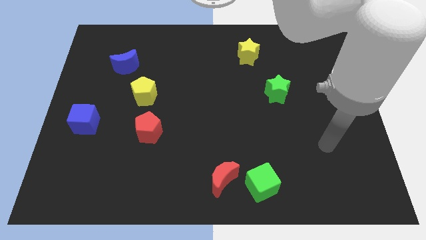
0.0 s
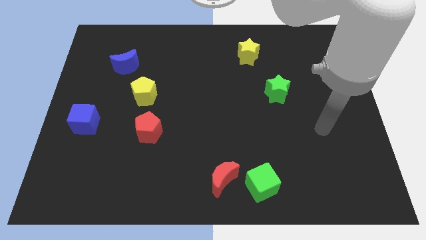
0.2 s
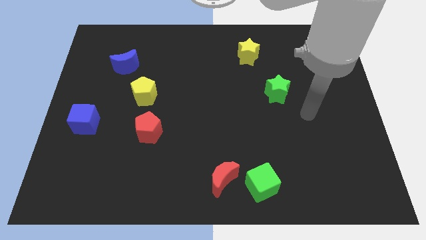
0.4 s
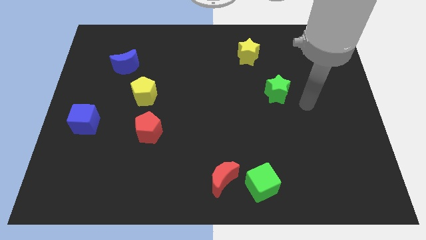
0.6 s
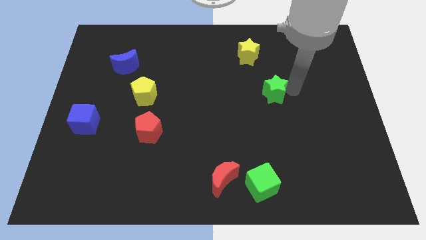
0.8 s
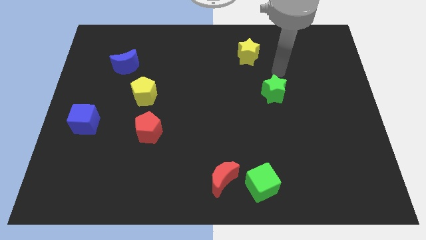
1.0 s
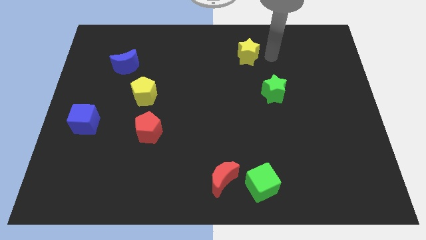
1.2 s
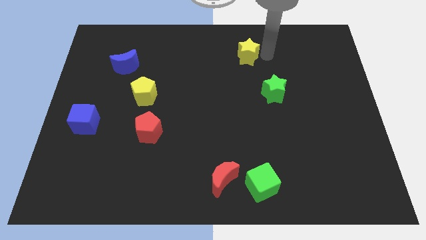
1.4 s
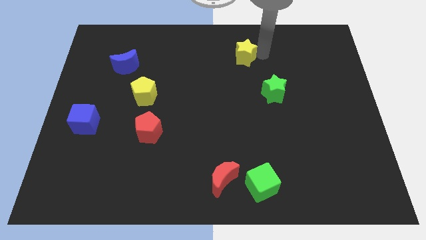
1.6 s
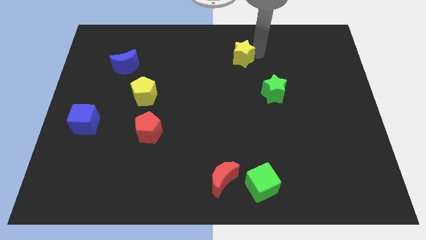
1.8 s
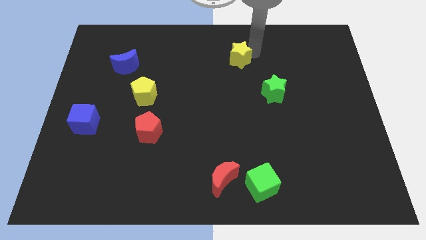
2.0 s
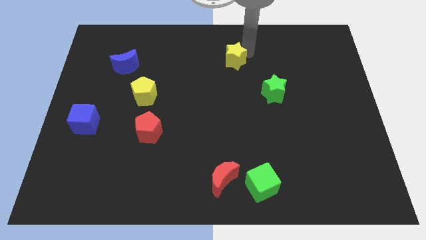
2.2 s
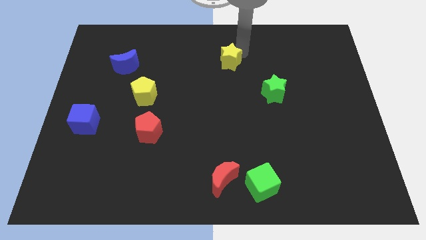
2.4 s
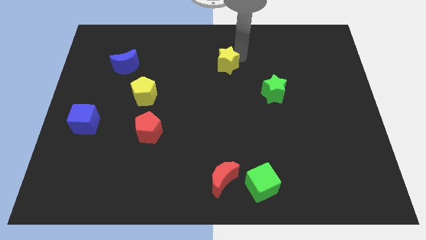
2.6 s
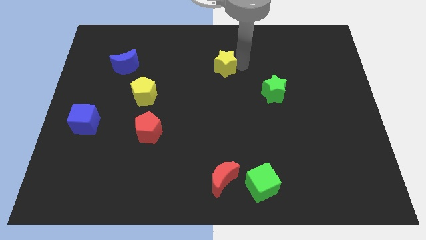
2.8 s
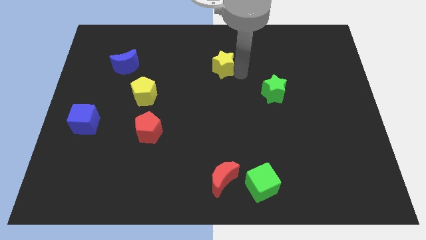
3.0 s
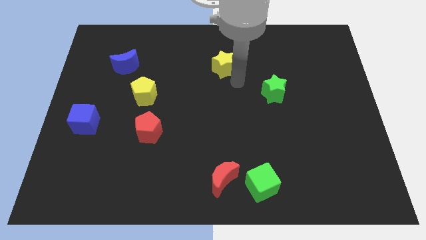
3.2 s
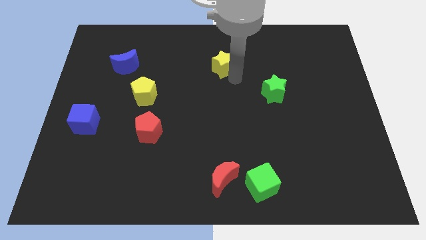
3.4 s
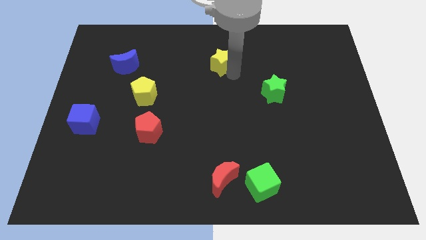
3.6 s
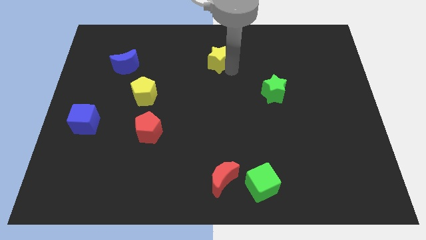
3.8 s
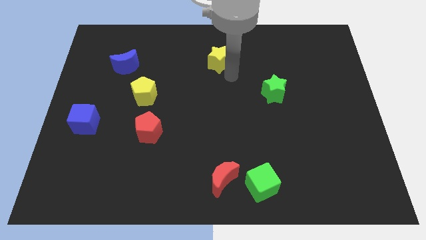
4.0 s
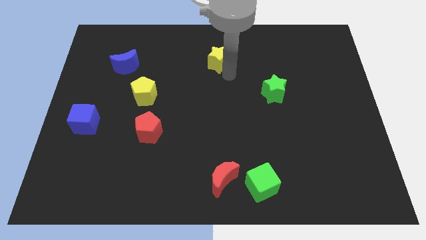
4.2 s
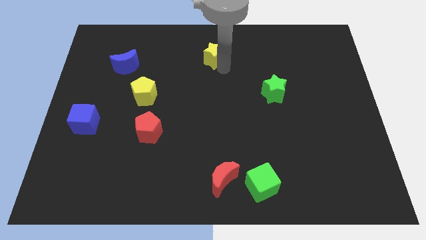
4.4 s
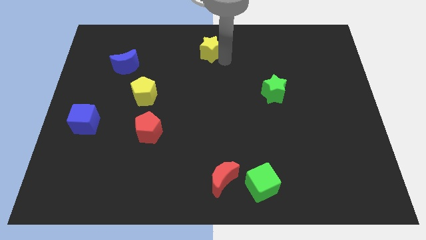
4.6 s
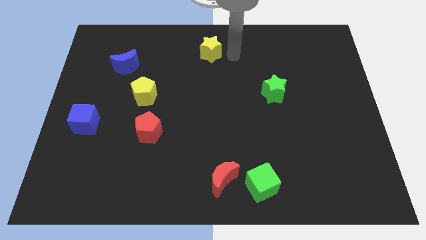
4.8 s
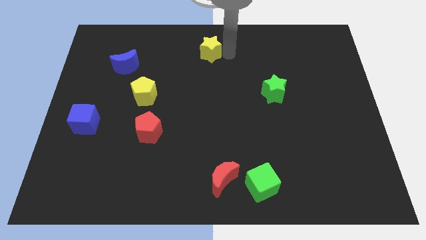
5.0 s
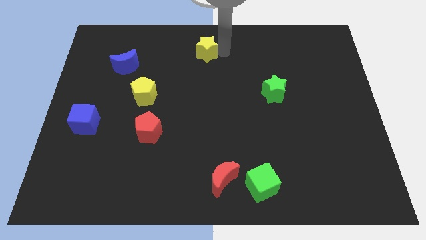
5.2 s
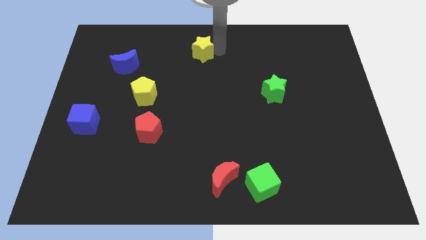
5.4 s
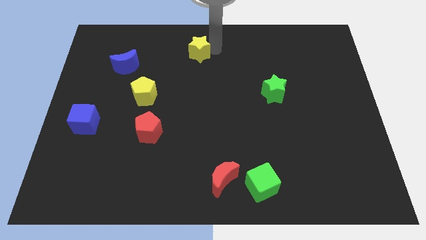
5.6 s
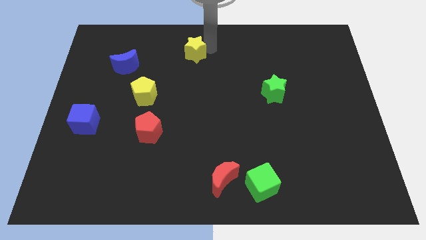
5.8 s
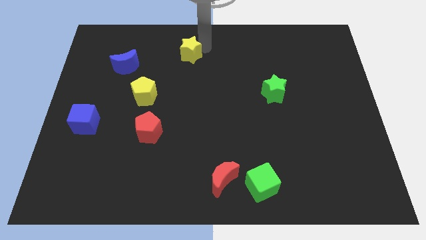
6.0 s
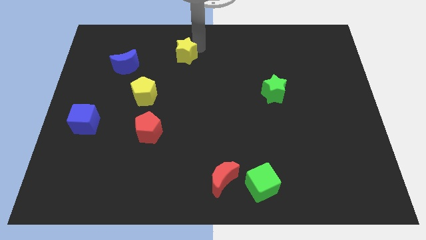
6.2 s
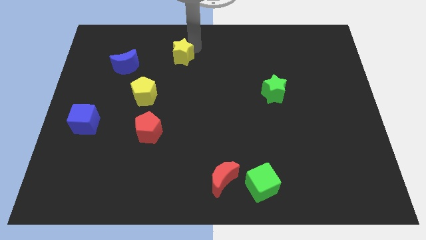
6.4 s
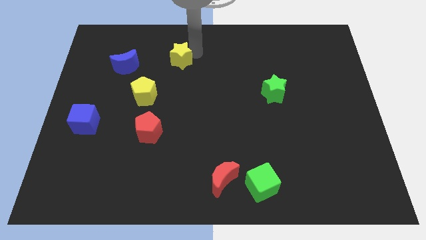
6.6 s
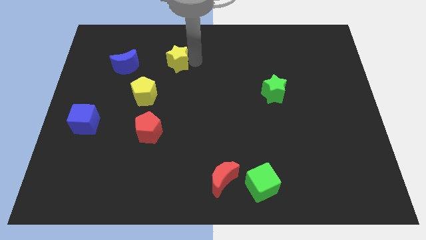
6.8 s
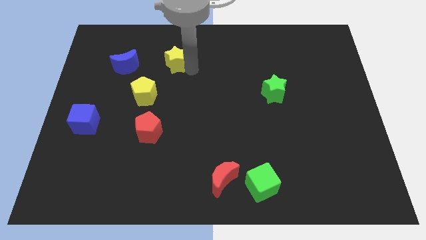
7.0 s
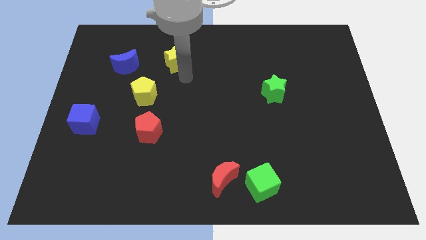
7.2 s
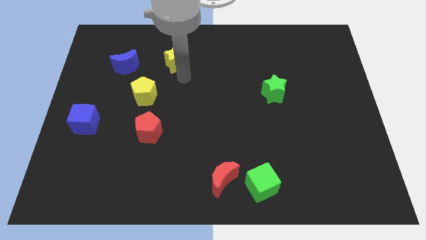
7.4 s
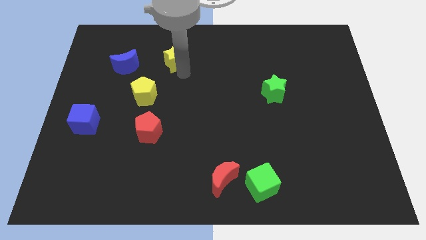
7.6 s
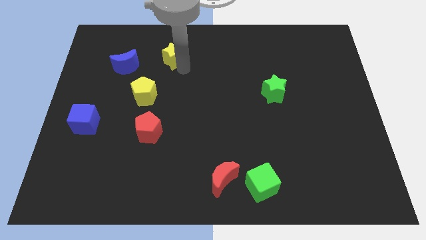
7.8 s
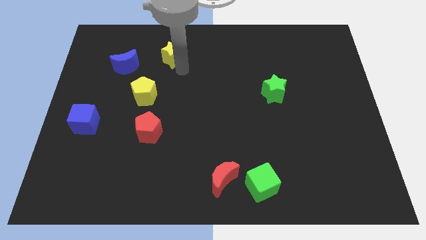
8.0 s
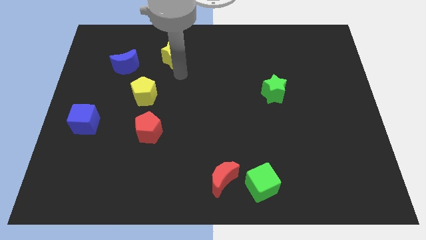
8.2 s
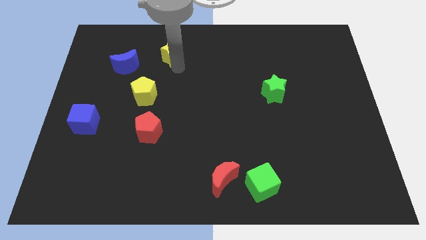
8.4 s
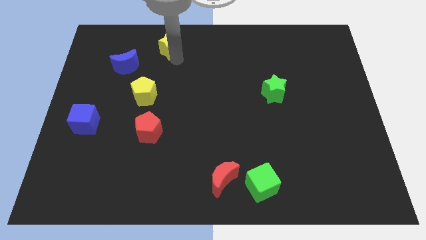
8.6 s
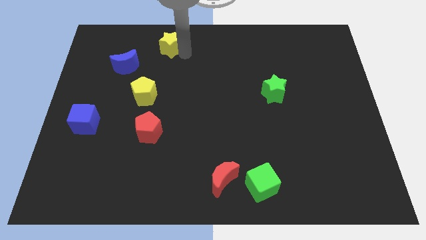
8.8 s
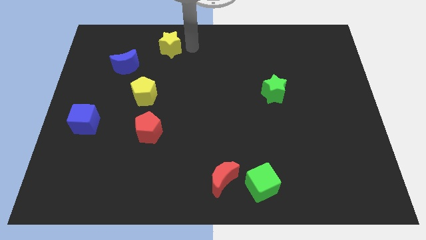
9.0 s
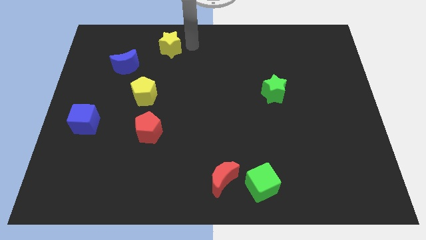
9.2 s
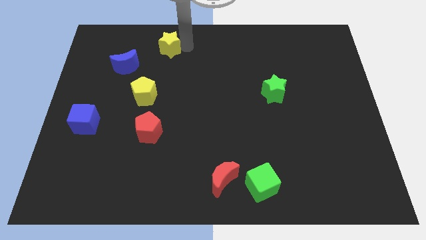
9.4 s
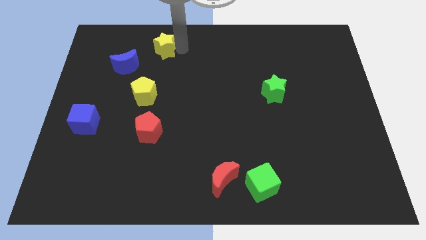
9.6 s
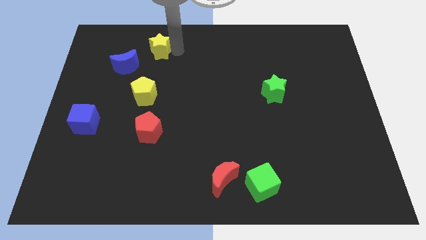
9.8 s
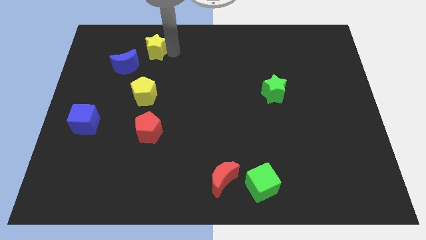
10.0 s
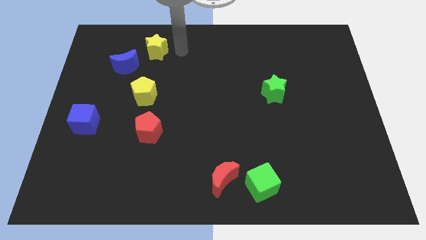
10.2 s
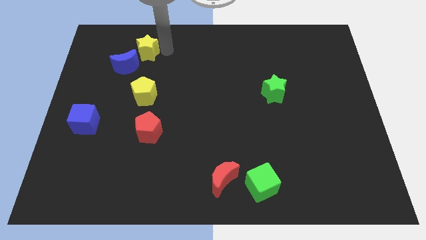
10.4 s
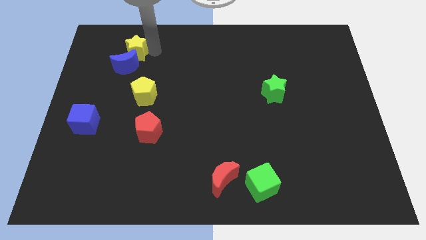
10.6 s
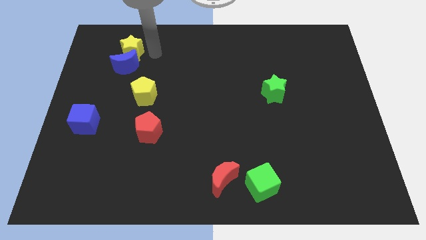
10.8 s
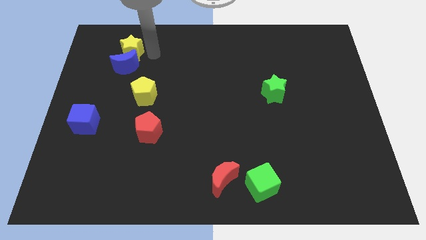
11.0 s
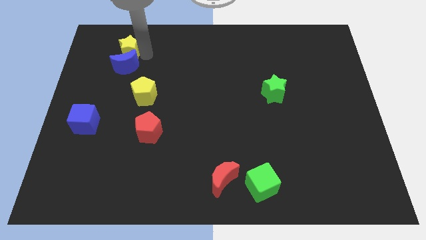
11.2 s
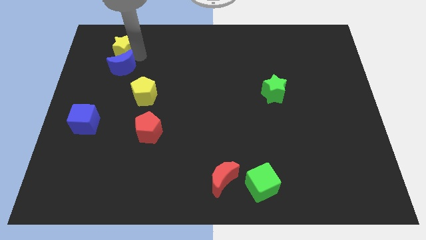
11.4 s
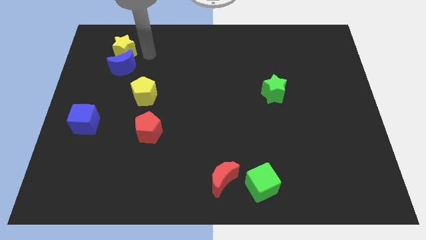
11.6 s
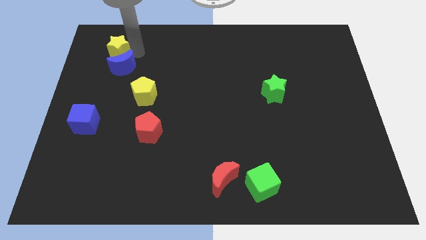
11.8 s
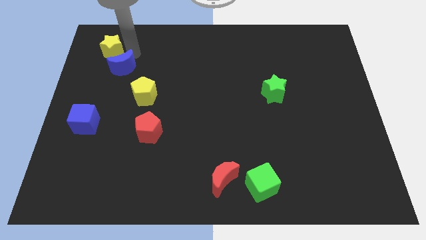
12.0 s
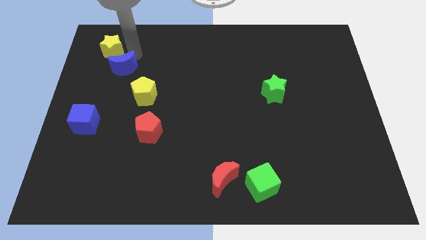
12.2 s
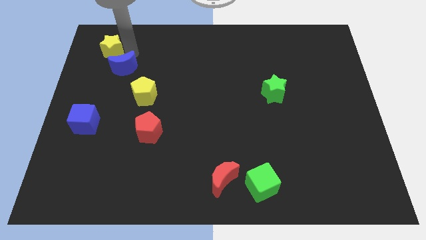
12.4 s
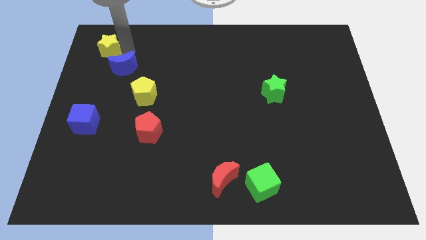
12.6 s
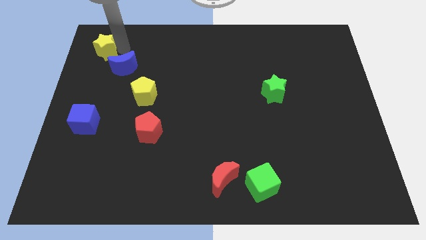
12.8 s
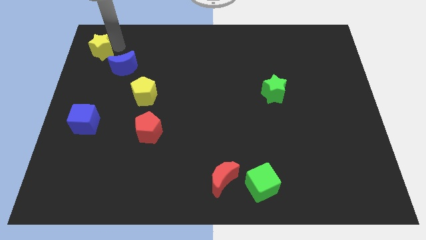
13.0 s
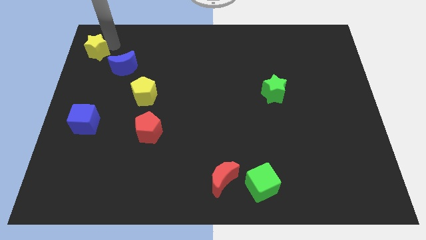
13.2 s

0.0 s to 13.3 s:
put the yellow star to the upper left corner
